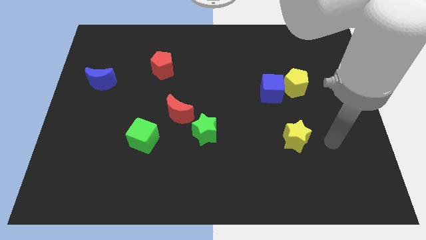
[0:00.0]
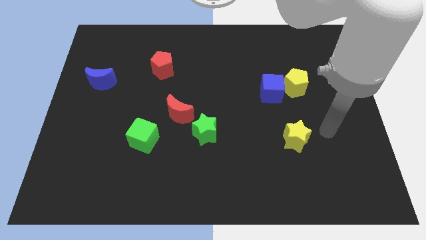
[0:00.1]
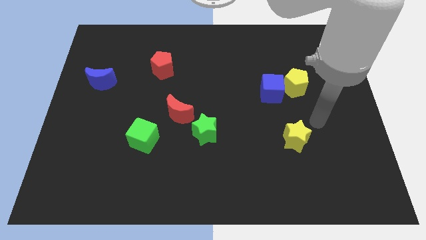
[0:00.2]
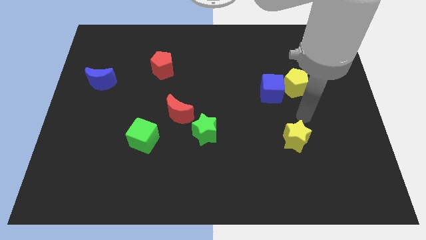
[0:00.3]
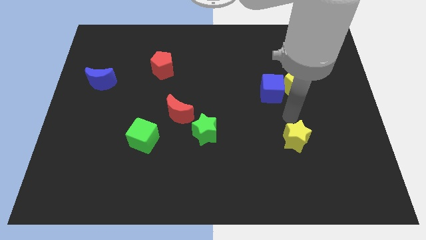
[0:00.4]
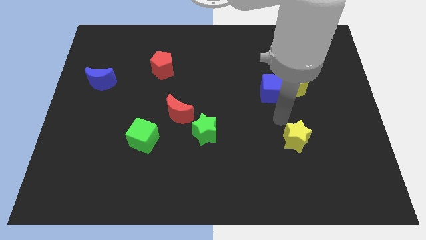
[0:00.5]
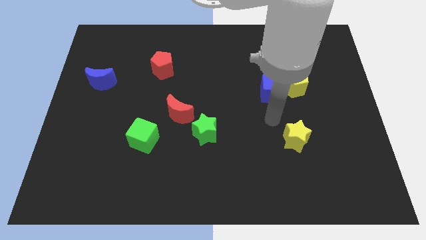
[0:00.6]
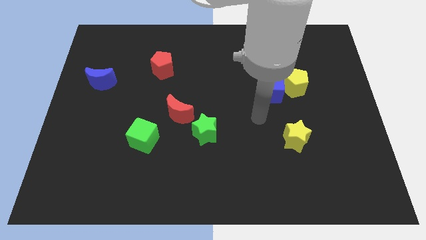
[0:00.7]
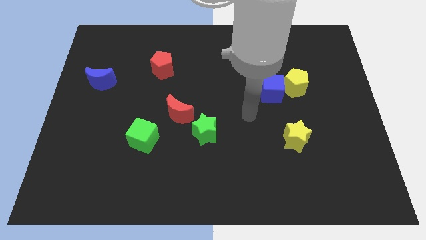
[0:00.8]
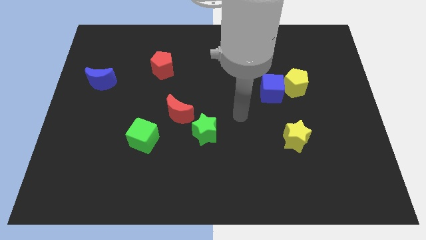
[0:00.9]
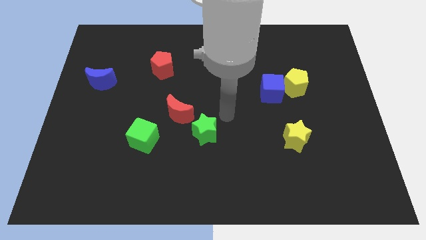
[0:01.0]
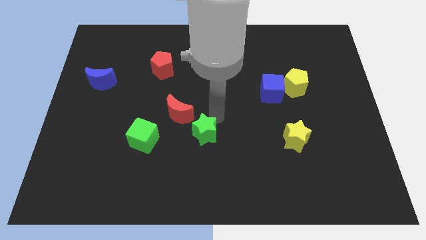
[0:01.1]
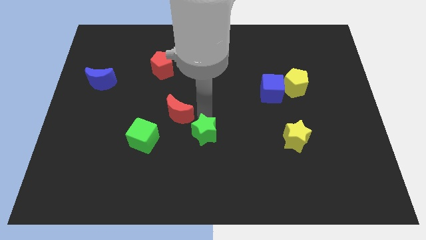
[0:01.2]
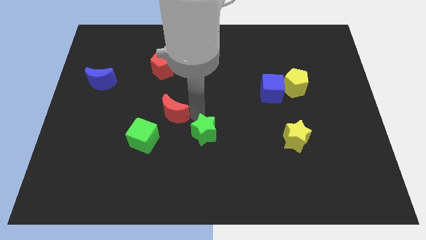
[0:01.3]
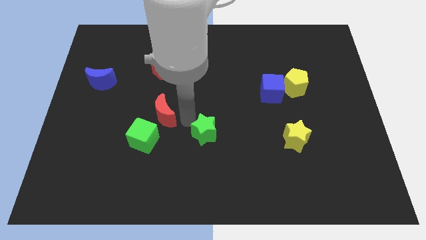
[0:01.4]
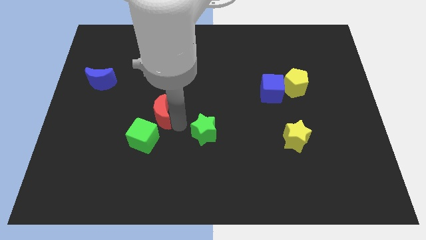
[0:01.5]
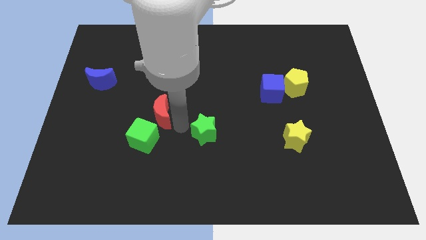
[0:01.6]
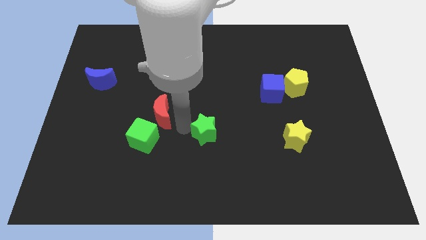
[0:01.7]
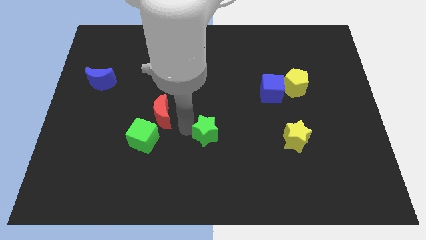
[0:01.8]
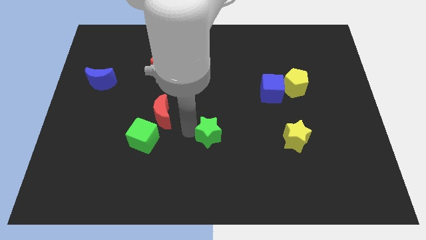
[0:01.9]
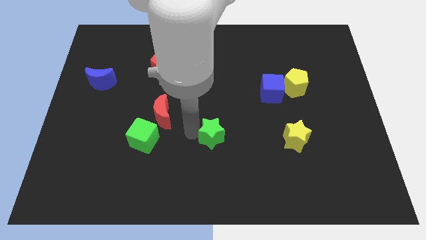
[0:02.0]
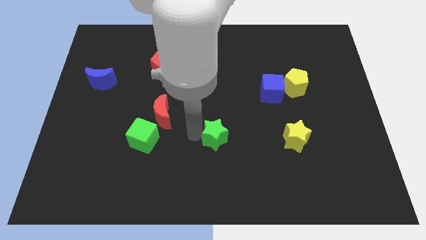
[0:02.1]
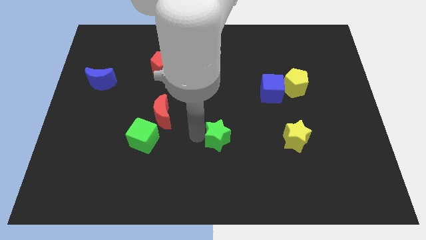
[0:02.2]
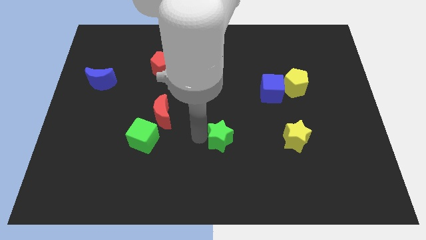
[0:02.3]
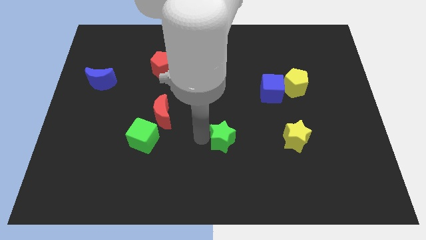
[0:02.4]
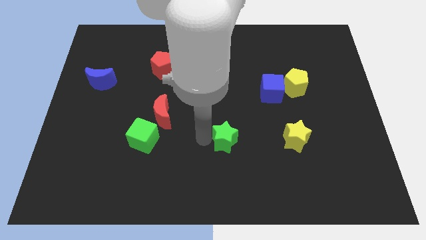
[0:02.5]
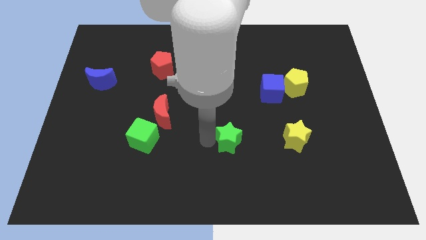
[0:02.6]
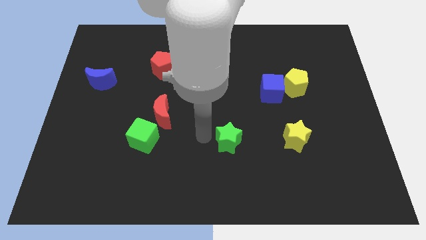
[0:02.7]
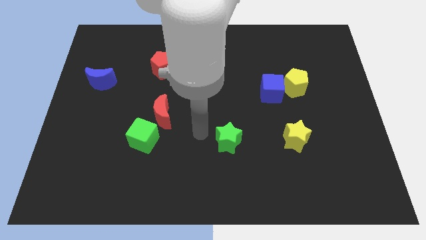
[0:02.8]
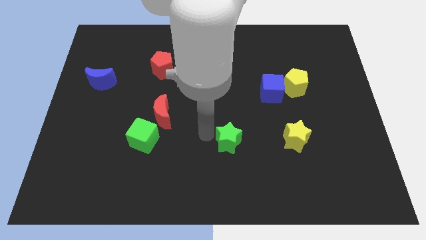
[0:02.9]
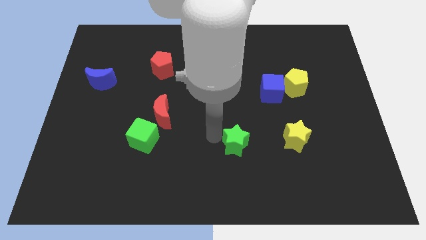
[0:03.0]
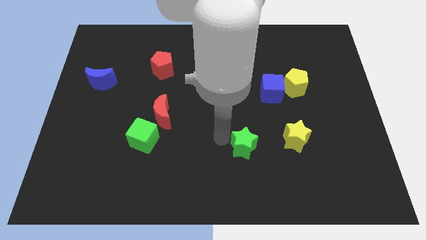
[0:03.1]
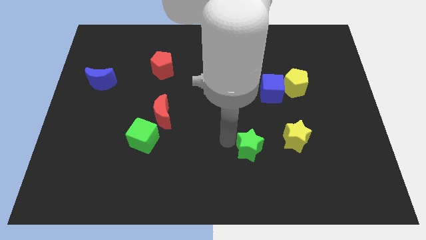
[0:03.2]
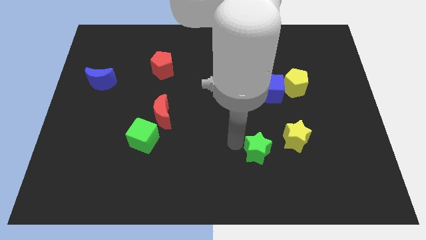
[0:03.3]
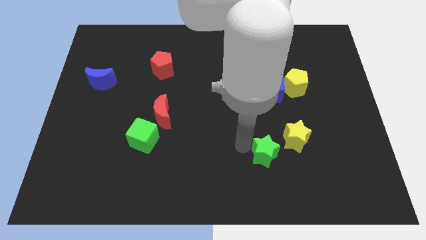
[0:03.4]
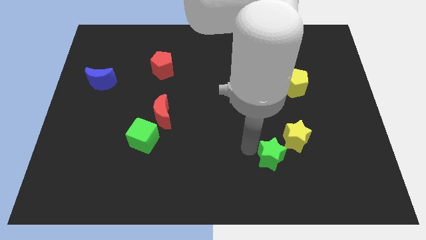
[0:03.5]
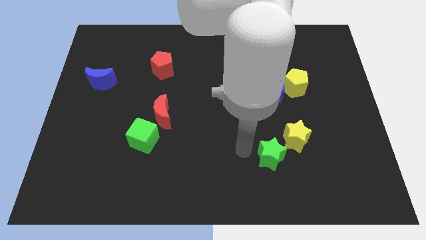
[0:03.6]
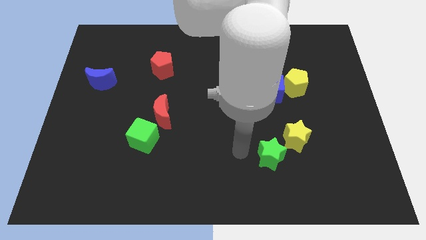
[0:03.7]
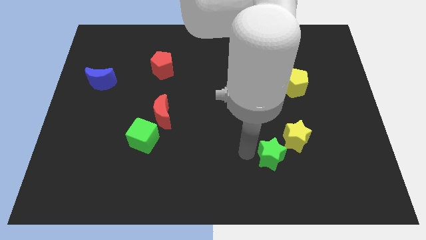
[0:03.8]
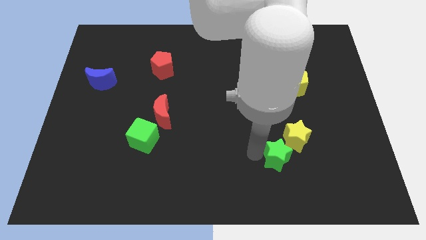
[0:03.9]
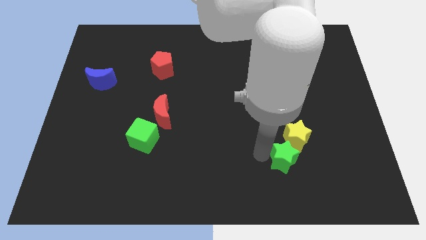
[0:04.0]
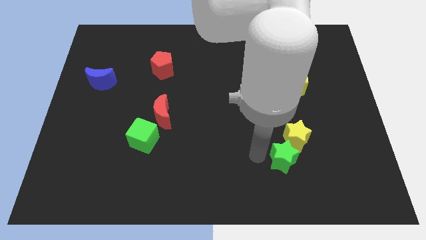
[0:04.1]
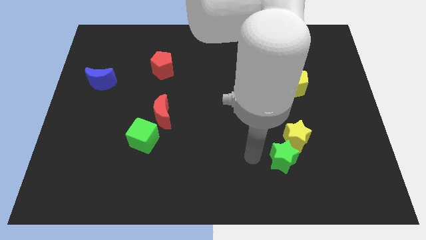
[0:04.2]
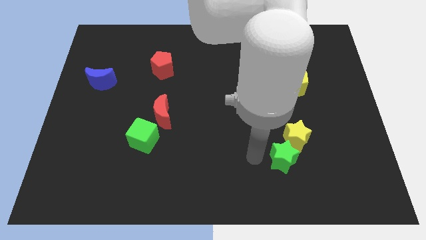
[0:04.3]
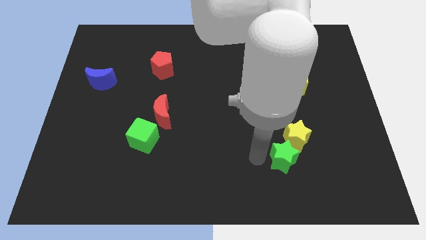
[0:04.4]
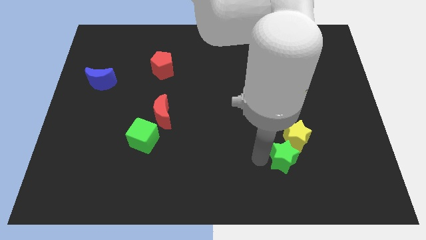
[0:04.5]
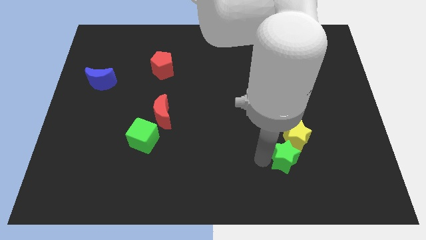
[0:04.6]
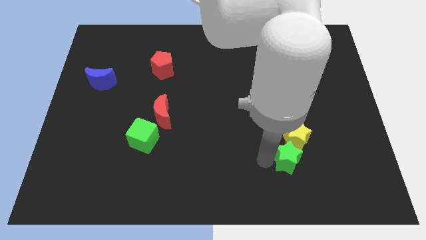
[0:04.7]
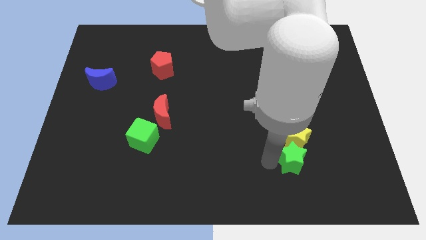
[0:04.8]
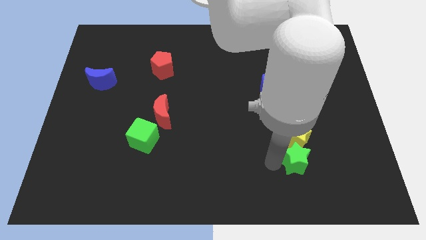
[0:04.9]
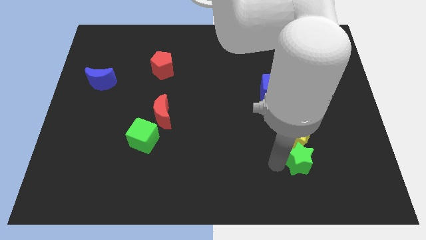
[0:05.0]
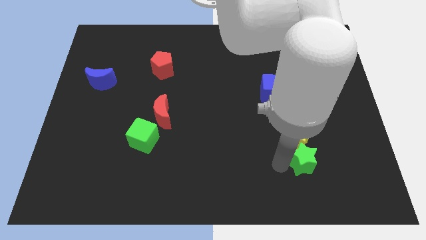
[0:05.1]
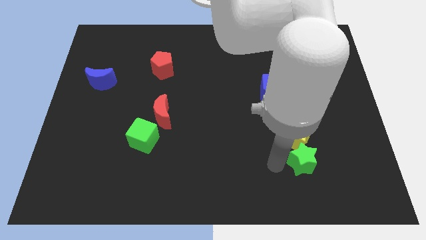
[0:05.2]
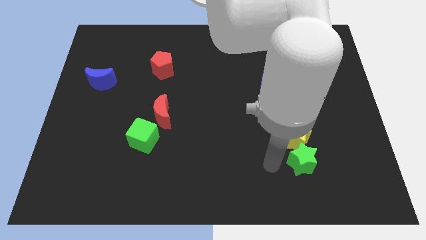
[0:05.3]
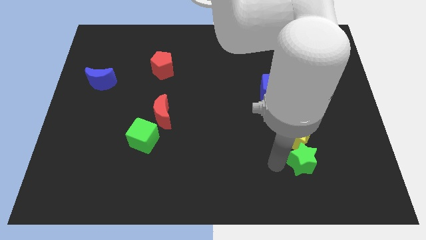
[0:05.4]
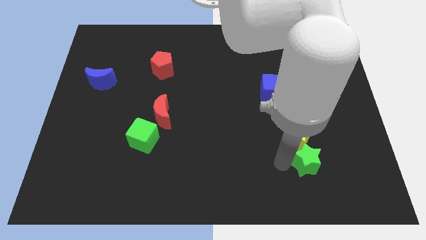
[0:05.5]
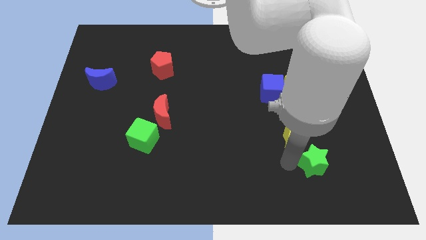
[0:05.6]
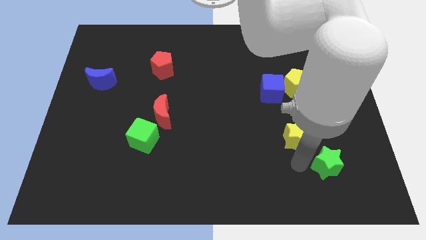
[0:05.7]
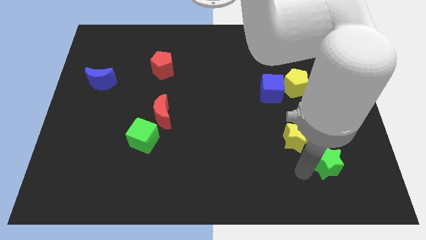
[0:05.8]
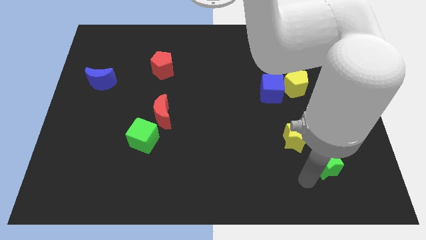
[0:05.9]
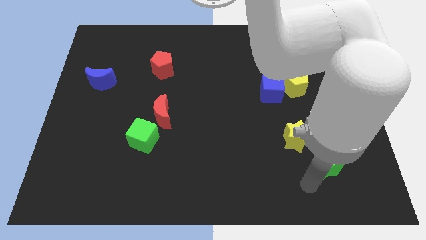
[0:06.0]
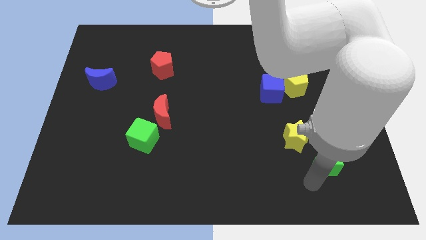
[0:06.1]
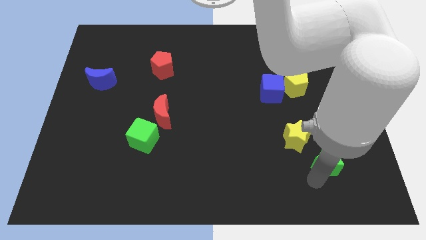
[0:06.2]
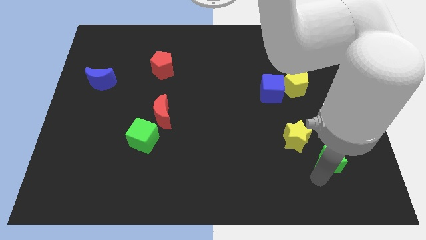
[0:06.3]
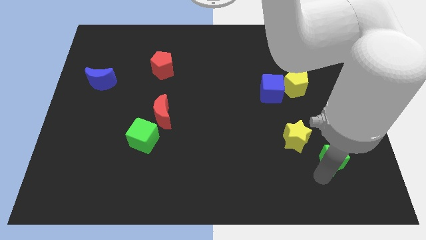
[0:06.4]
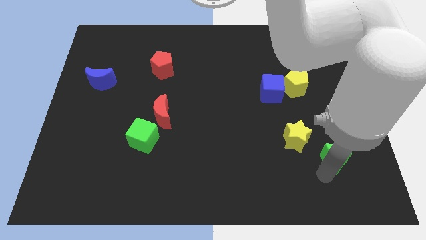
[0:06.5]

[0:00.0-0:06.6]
slide the green star just right of the yellow star
